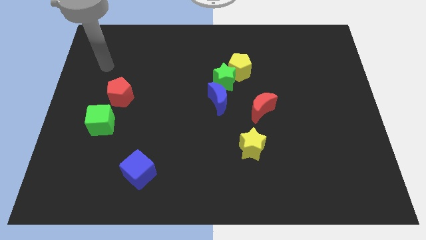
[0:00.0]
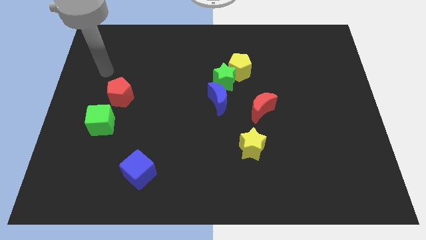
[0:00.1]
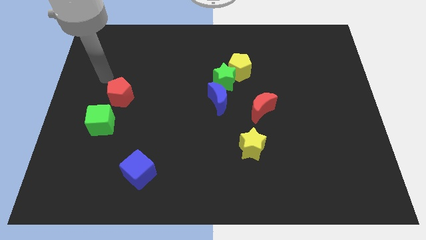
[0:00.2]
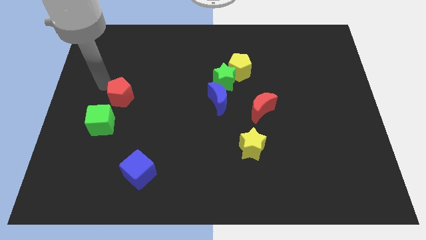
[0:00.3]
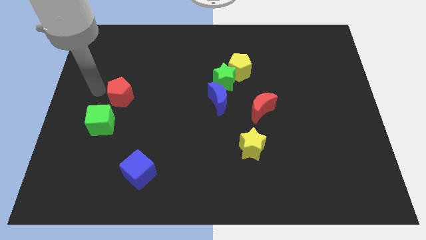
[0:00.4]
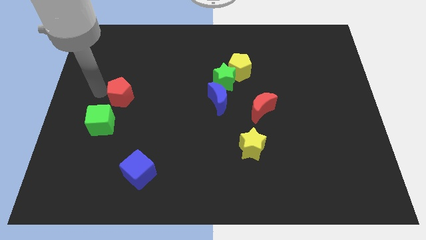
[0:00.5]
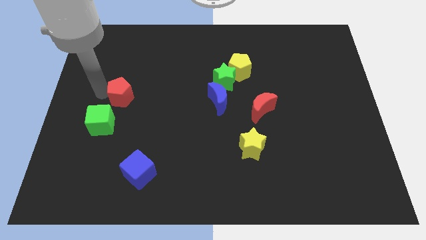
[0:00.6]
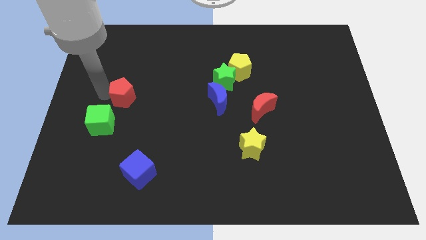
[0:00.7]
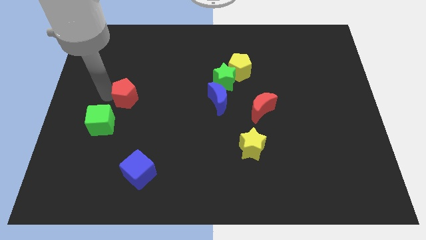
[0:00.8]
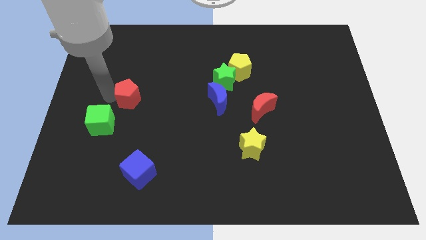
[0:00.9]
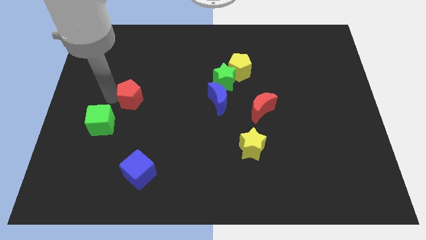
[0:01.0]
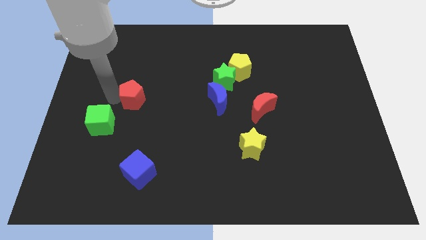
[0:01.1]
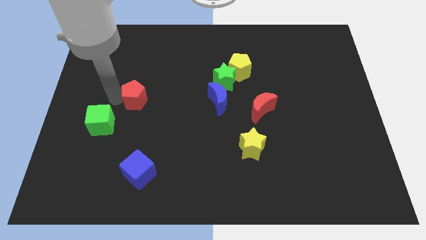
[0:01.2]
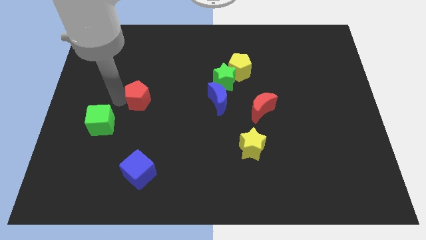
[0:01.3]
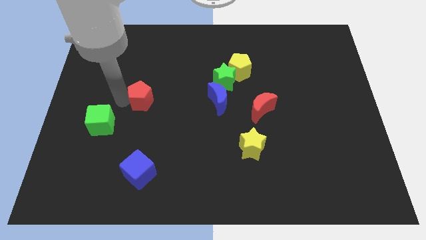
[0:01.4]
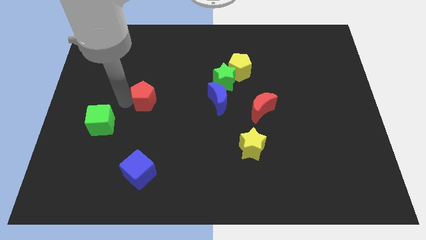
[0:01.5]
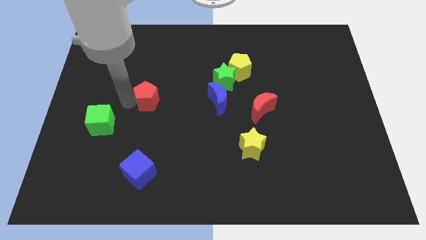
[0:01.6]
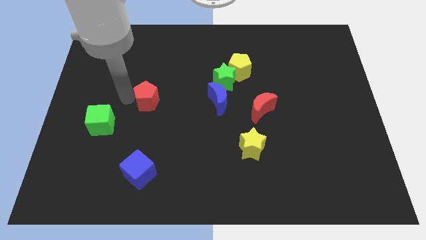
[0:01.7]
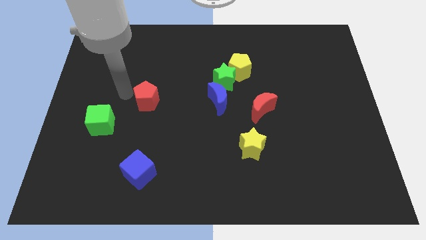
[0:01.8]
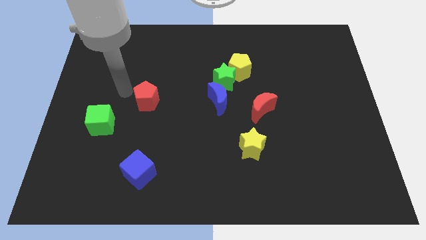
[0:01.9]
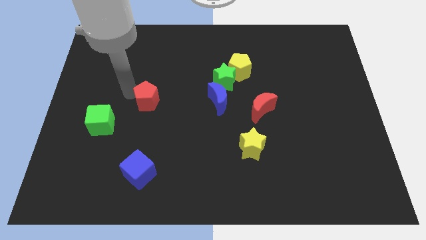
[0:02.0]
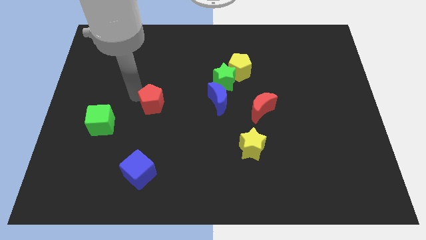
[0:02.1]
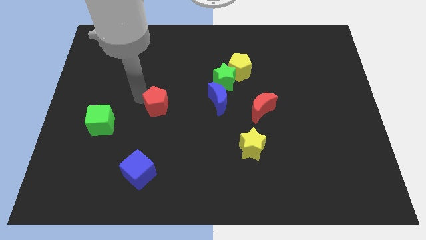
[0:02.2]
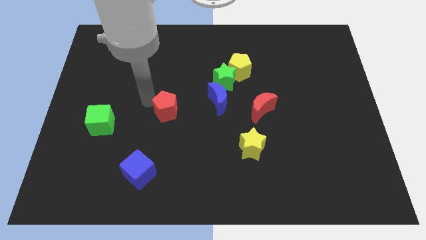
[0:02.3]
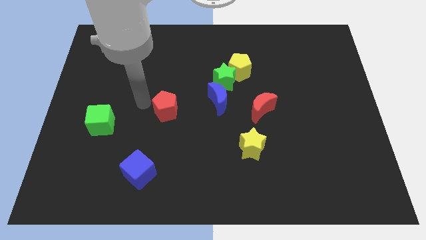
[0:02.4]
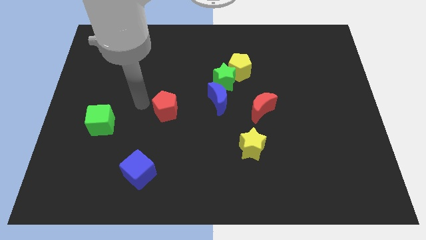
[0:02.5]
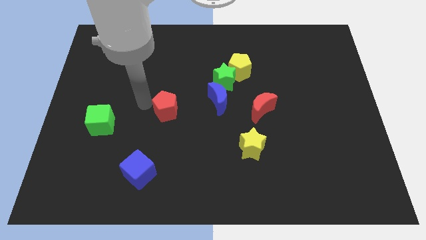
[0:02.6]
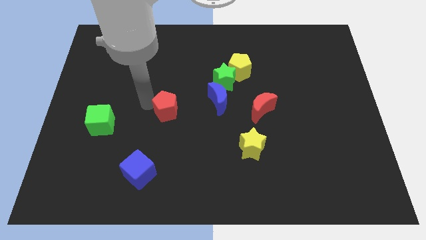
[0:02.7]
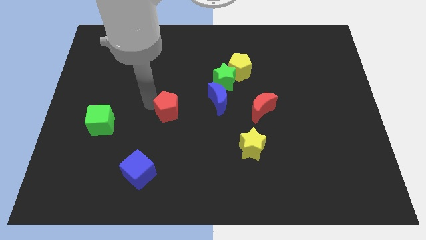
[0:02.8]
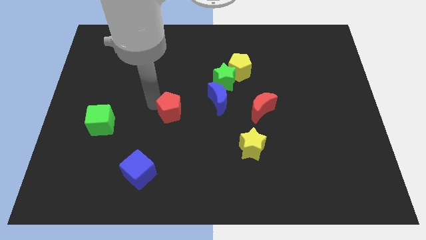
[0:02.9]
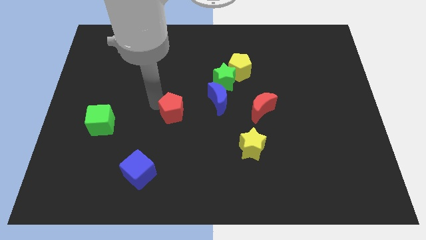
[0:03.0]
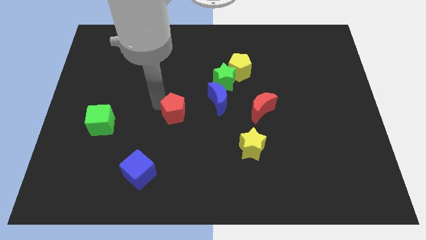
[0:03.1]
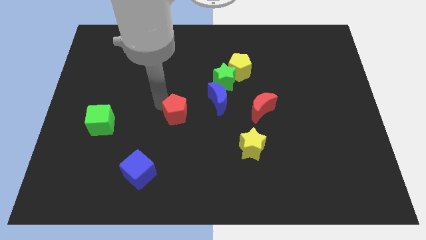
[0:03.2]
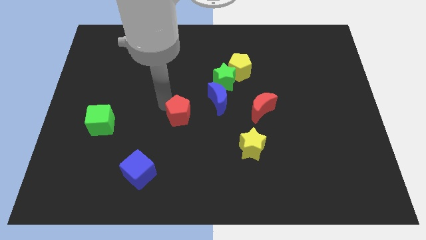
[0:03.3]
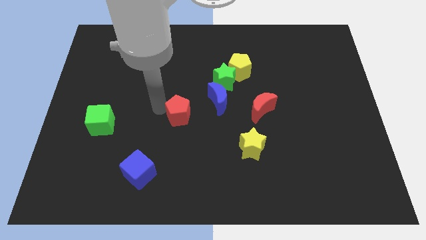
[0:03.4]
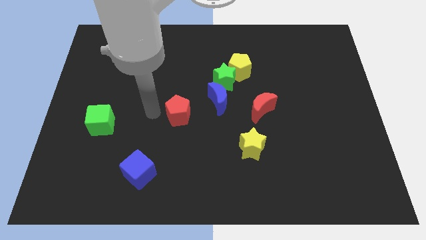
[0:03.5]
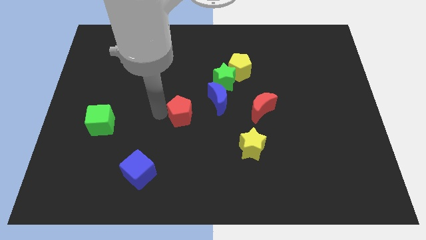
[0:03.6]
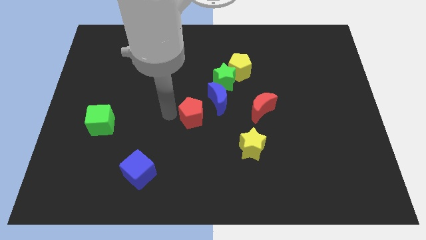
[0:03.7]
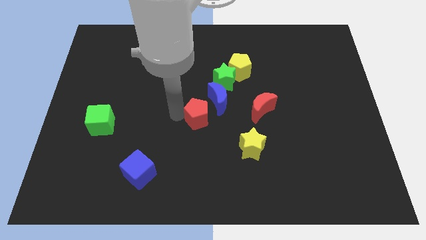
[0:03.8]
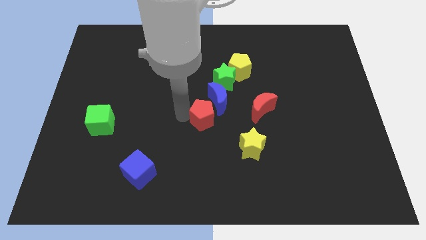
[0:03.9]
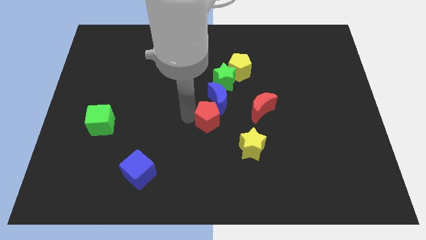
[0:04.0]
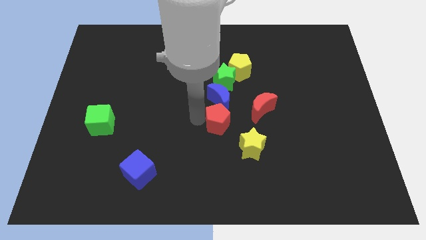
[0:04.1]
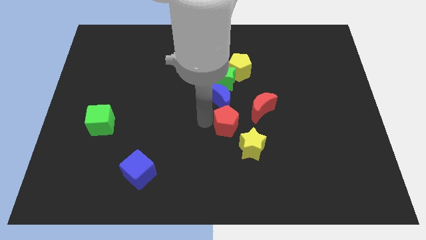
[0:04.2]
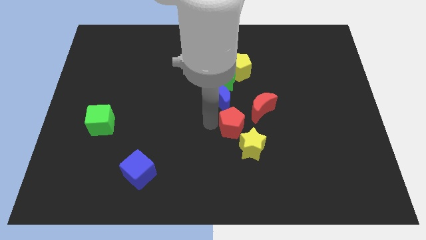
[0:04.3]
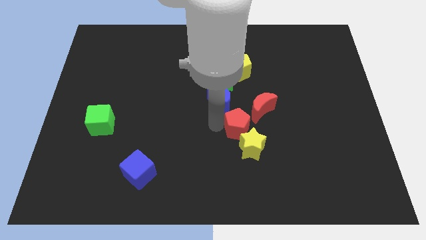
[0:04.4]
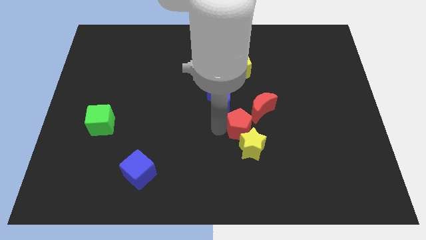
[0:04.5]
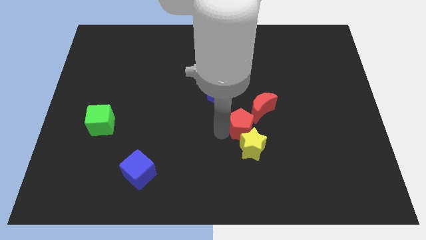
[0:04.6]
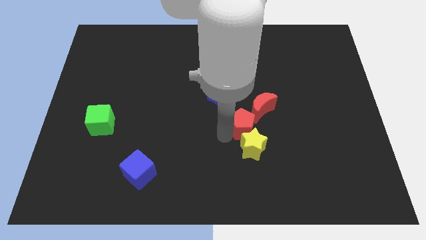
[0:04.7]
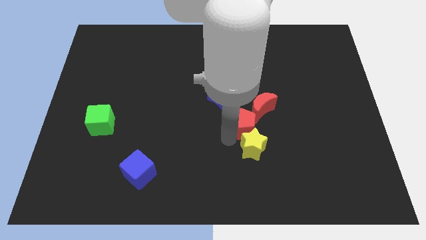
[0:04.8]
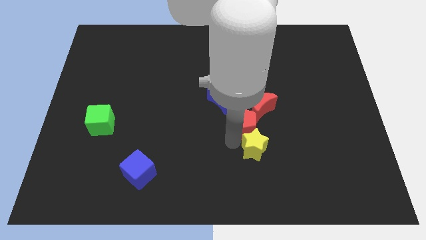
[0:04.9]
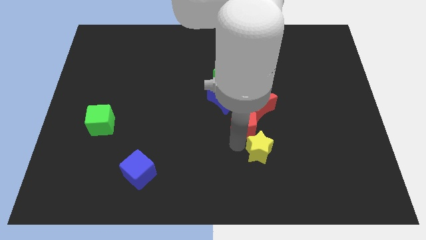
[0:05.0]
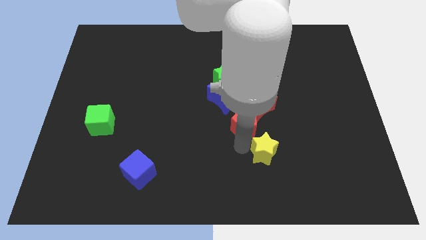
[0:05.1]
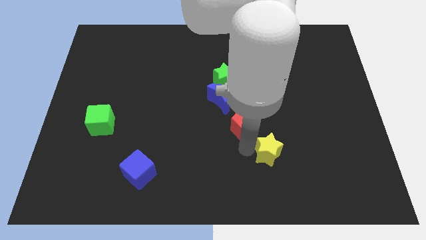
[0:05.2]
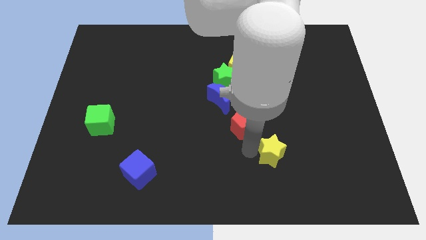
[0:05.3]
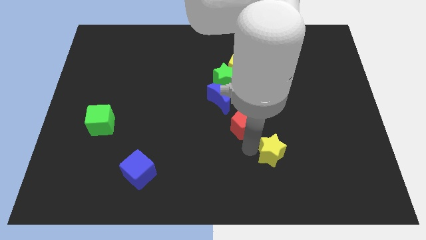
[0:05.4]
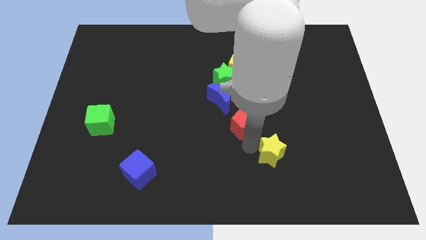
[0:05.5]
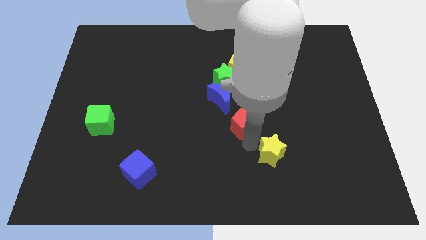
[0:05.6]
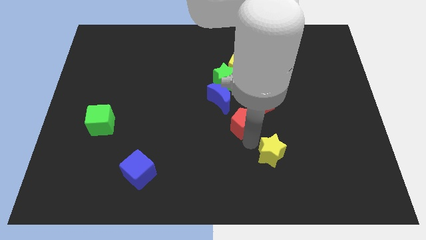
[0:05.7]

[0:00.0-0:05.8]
slide the red pentagon close to the red moon

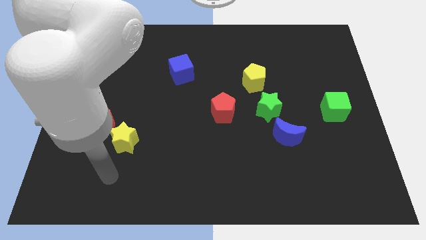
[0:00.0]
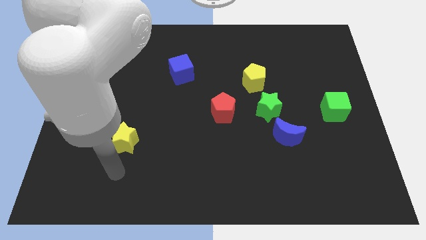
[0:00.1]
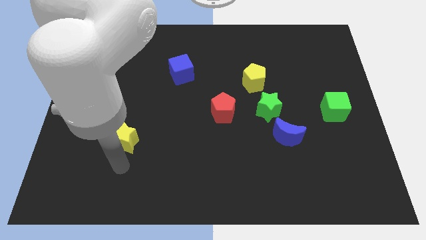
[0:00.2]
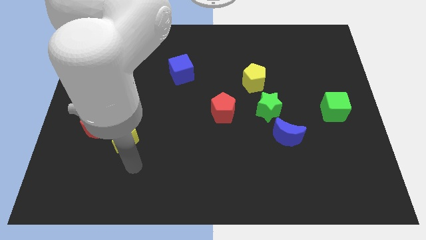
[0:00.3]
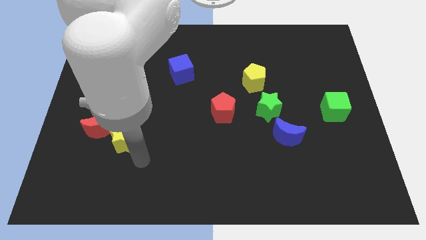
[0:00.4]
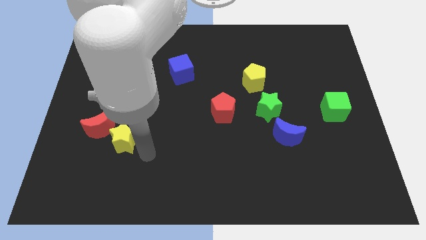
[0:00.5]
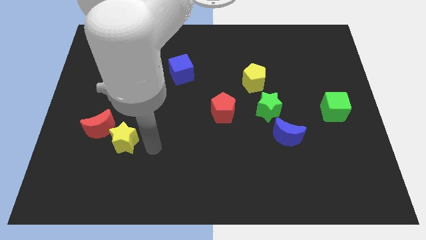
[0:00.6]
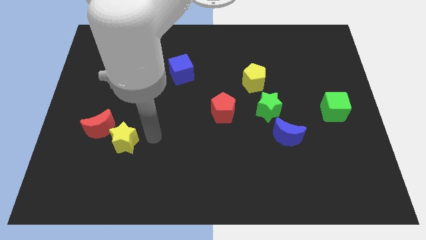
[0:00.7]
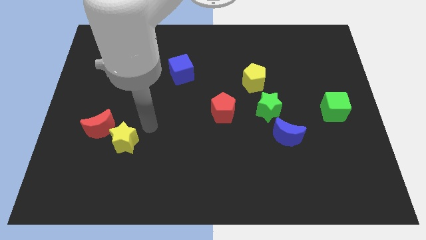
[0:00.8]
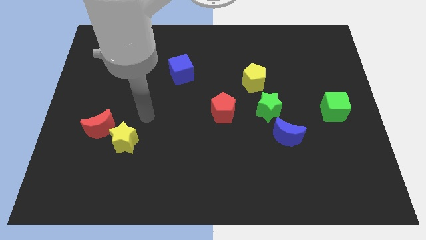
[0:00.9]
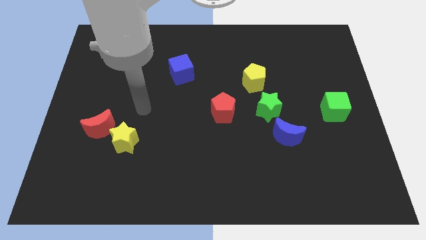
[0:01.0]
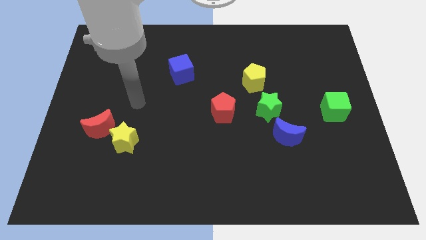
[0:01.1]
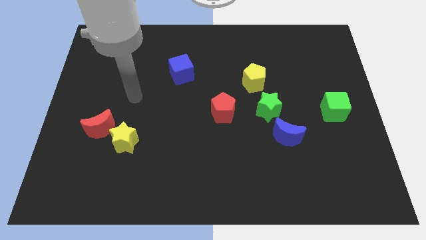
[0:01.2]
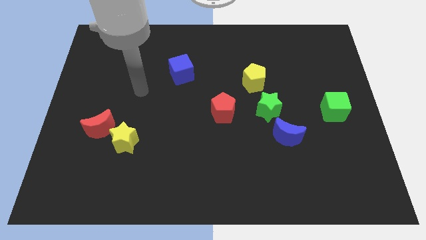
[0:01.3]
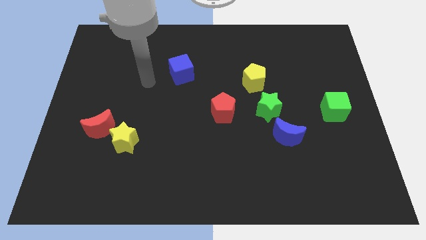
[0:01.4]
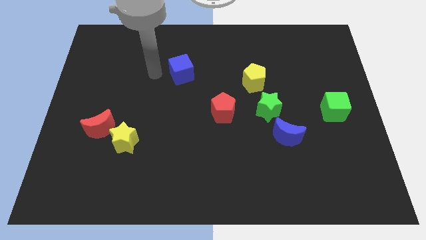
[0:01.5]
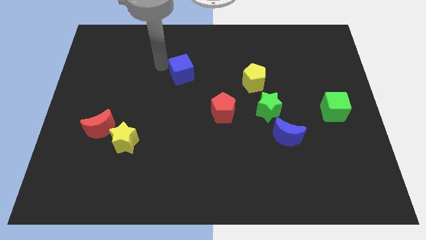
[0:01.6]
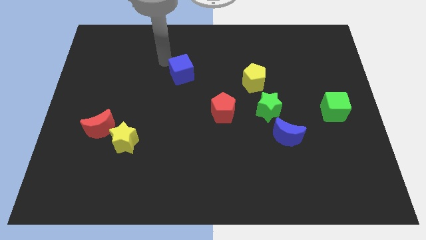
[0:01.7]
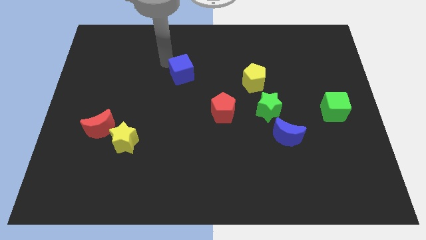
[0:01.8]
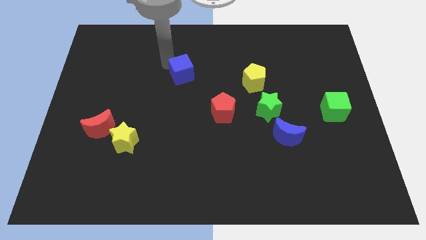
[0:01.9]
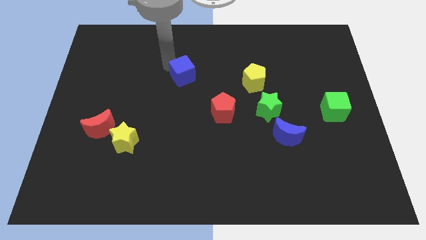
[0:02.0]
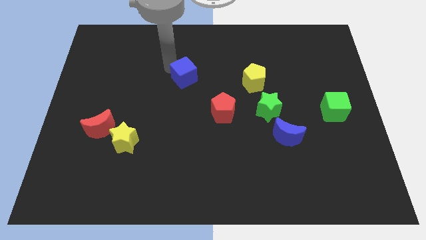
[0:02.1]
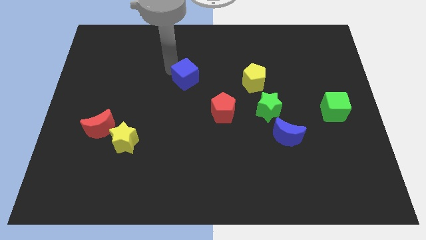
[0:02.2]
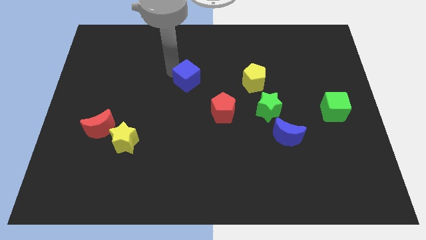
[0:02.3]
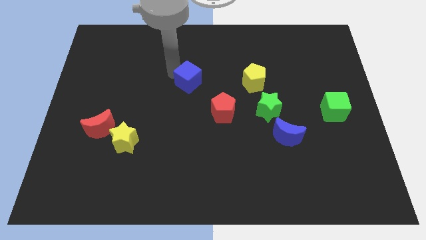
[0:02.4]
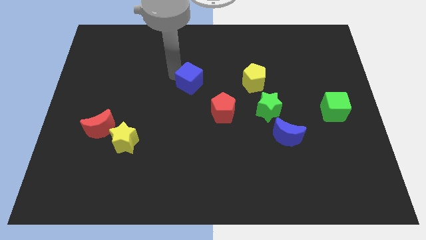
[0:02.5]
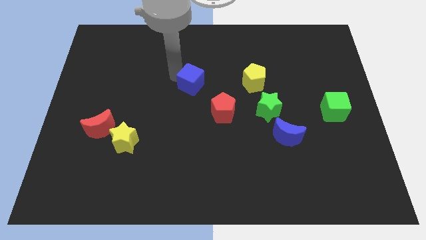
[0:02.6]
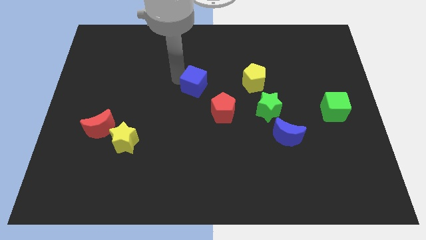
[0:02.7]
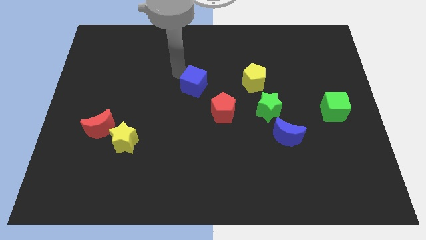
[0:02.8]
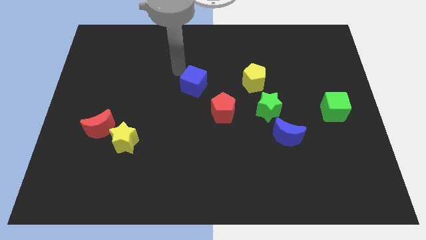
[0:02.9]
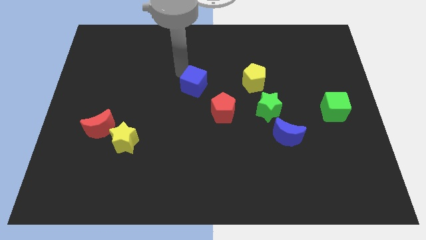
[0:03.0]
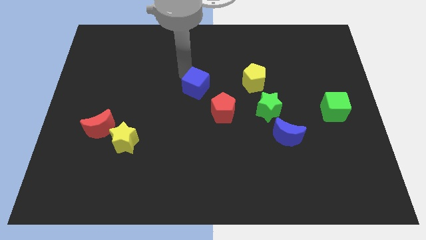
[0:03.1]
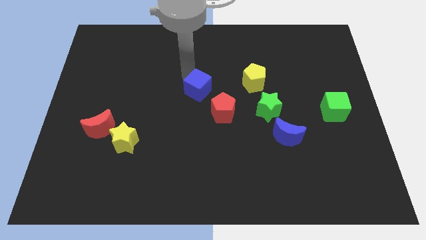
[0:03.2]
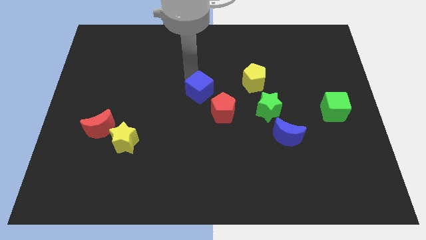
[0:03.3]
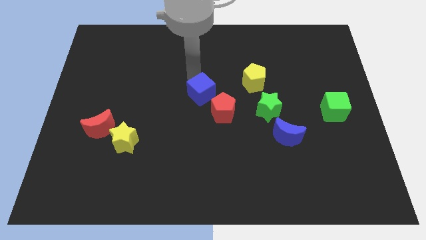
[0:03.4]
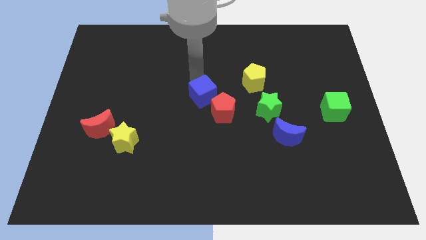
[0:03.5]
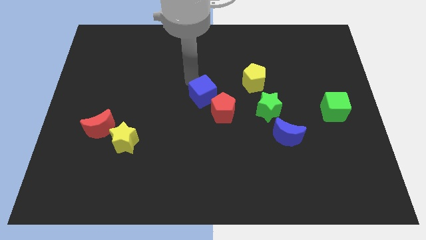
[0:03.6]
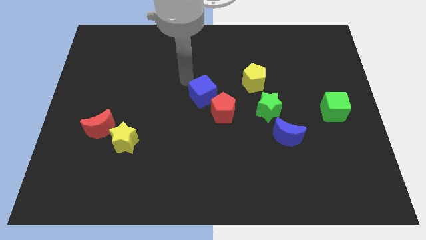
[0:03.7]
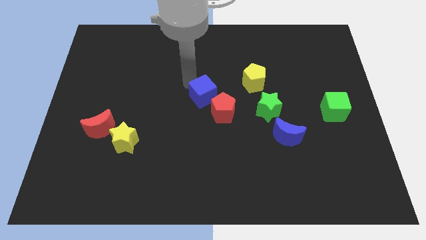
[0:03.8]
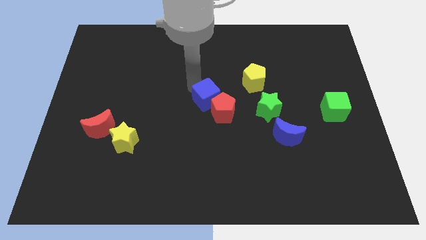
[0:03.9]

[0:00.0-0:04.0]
put the blue cube next to the red pentagon
